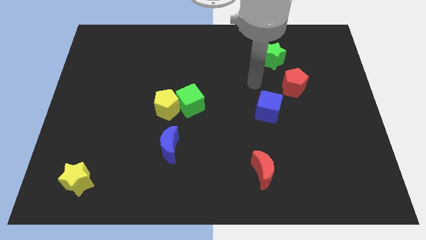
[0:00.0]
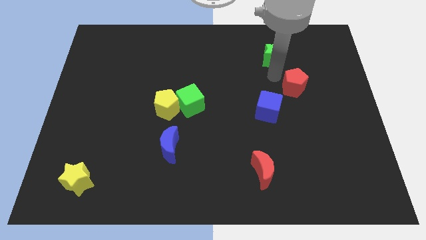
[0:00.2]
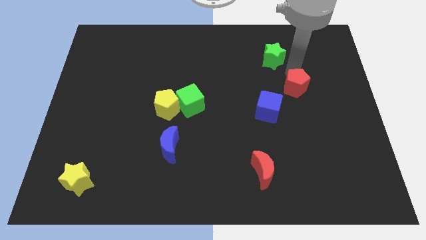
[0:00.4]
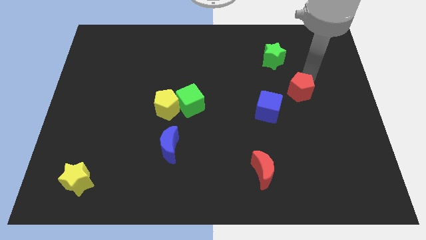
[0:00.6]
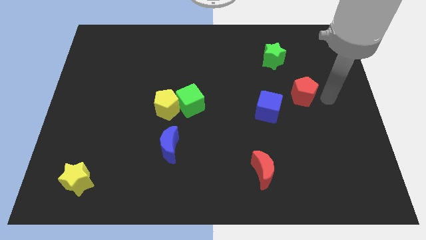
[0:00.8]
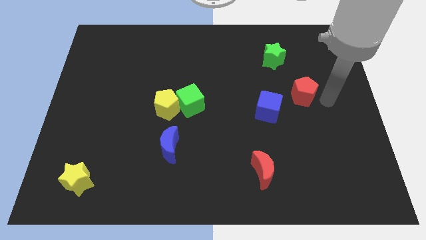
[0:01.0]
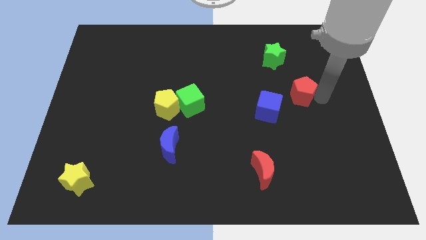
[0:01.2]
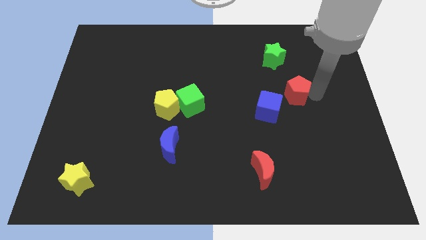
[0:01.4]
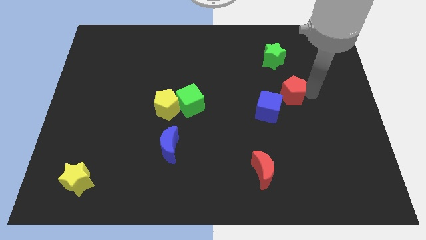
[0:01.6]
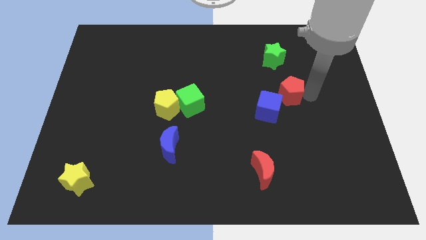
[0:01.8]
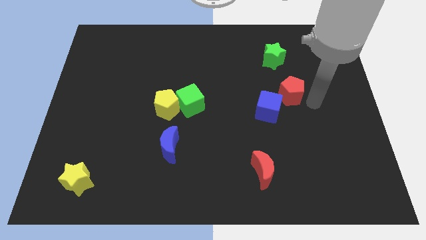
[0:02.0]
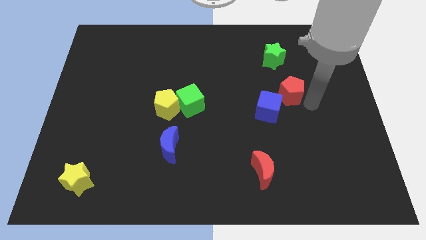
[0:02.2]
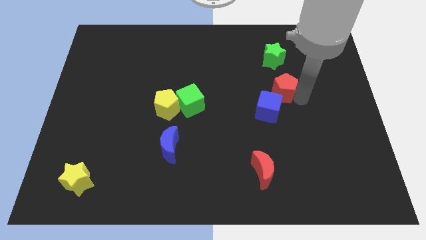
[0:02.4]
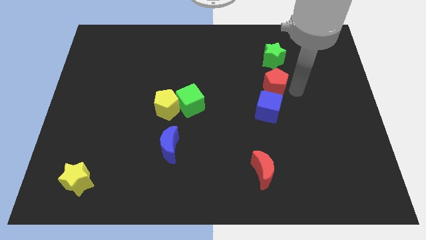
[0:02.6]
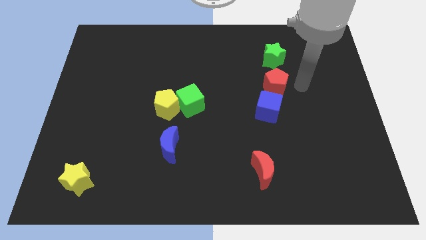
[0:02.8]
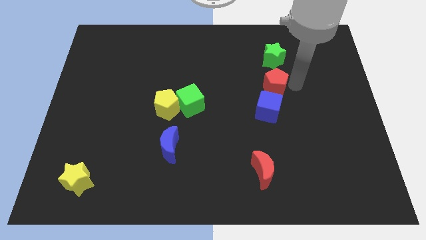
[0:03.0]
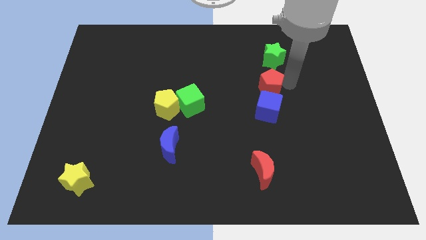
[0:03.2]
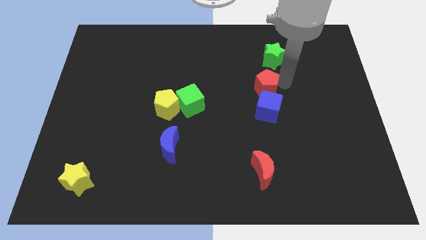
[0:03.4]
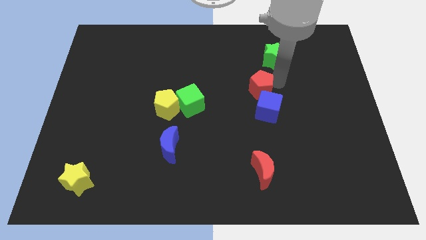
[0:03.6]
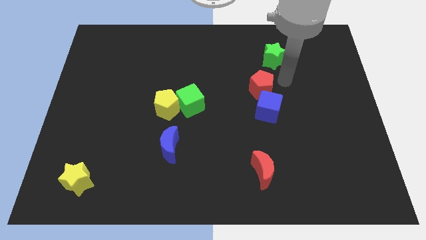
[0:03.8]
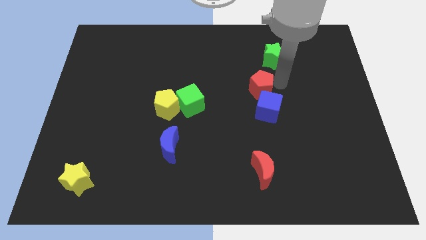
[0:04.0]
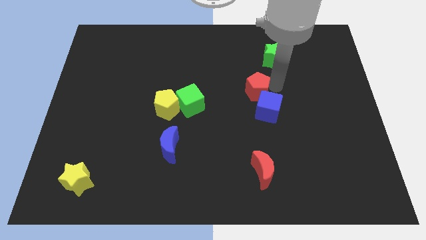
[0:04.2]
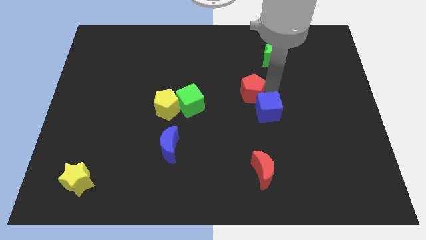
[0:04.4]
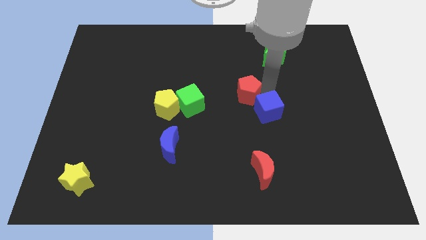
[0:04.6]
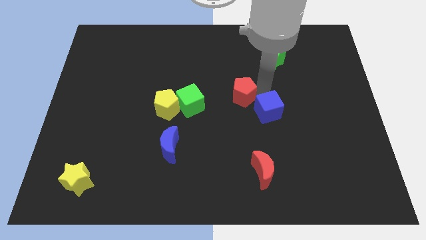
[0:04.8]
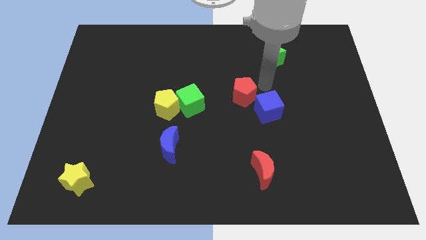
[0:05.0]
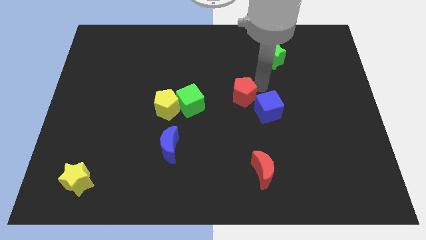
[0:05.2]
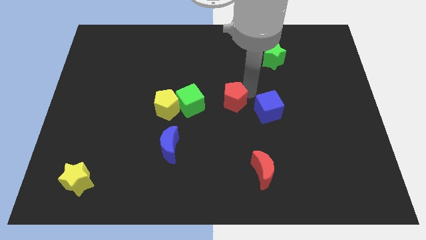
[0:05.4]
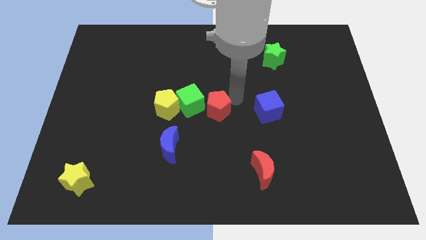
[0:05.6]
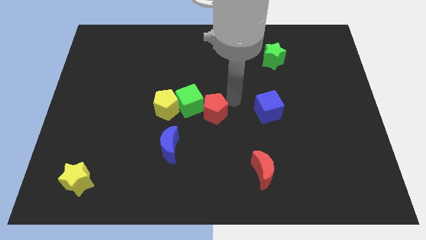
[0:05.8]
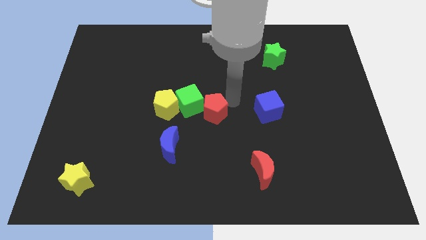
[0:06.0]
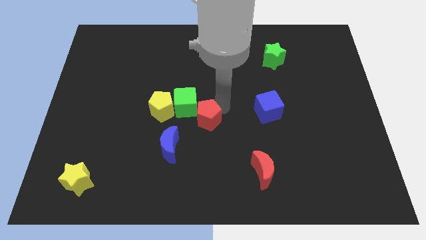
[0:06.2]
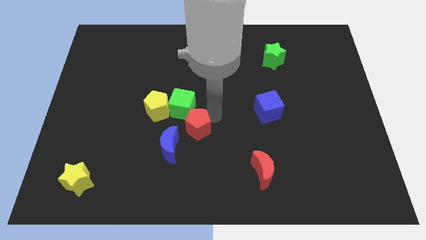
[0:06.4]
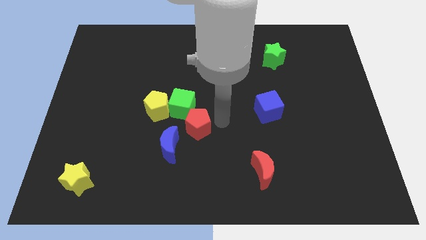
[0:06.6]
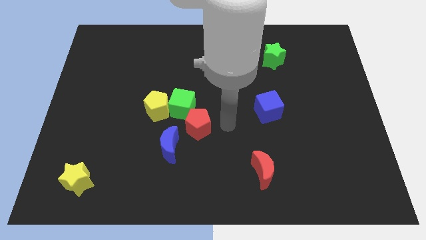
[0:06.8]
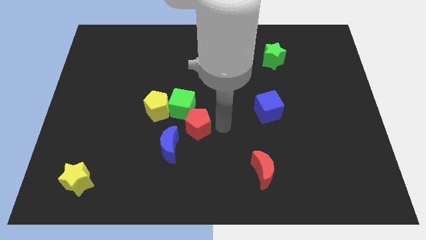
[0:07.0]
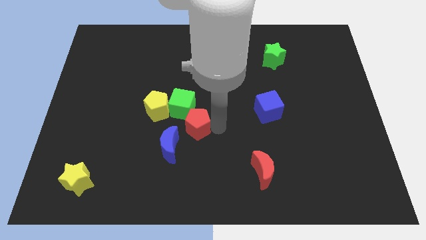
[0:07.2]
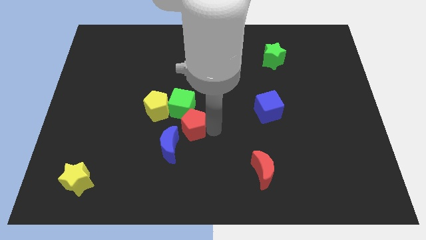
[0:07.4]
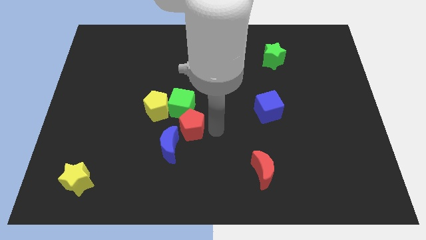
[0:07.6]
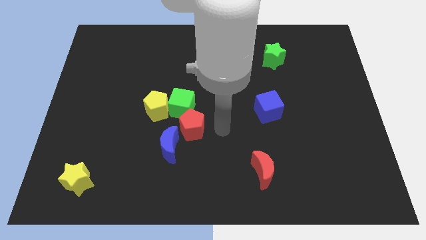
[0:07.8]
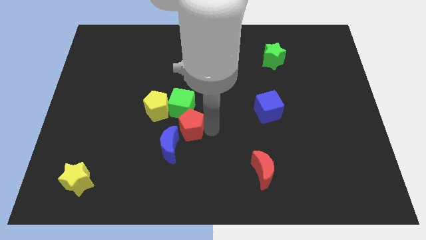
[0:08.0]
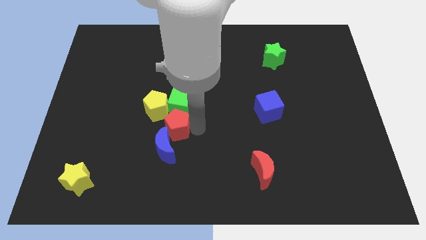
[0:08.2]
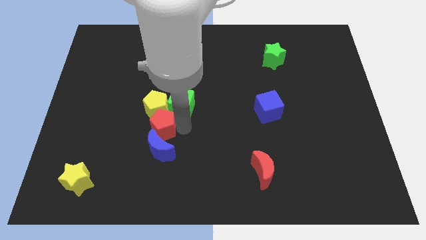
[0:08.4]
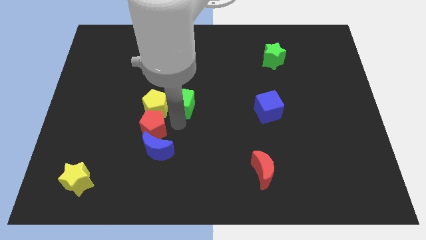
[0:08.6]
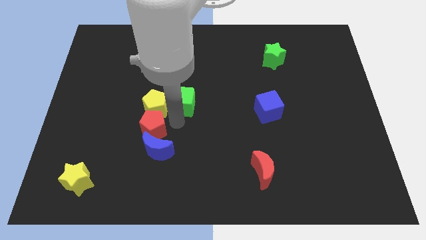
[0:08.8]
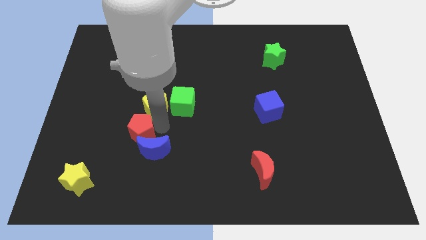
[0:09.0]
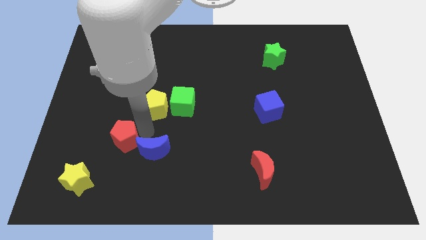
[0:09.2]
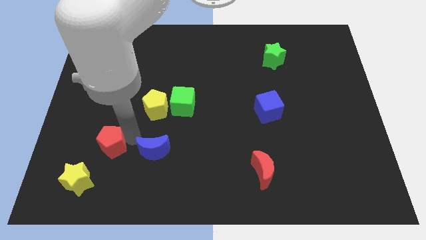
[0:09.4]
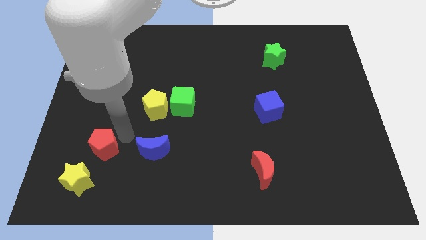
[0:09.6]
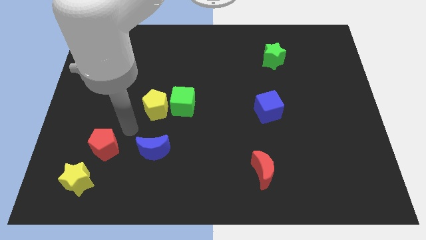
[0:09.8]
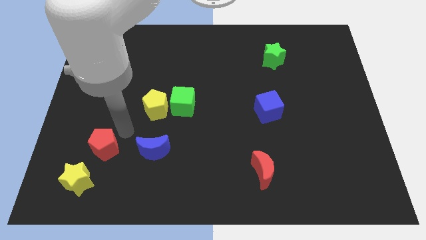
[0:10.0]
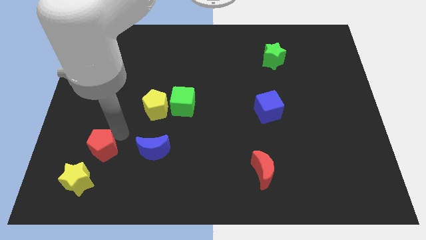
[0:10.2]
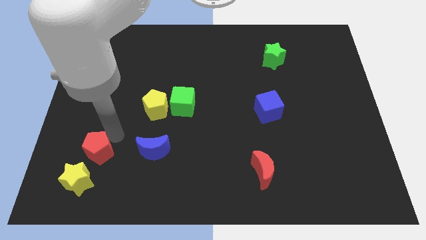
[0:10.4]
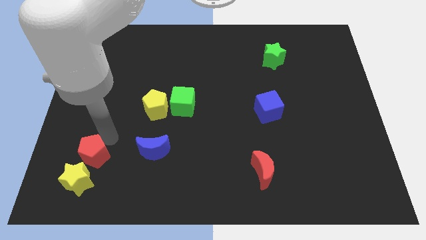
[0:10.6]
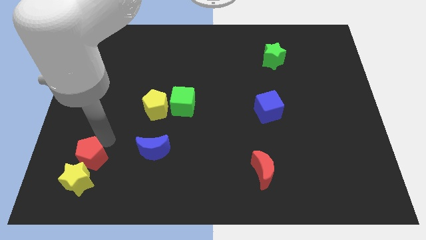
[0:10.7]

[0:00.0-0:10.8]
move the red pentagon to the yellow star
